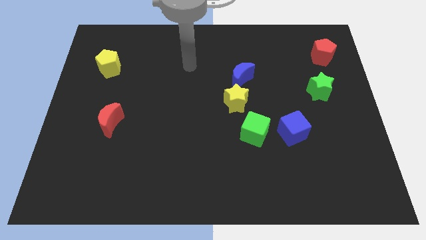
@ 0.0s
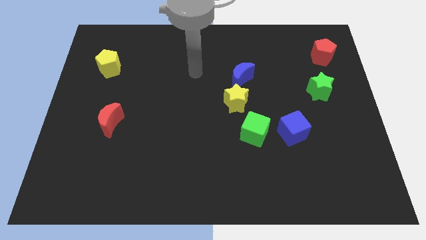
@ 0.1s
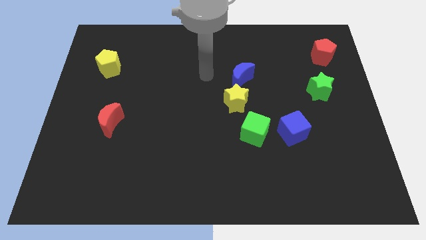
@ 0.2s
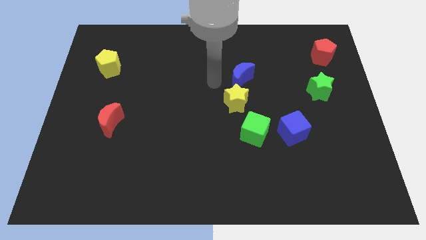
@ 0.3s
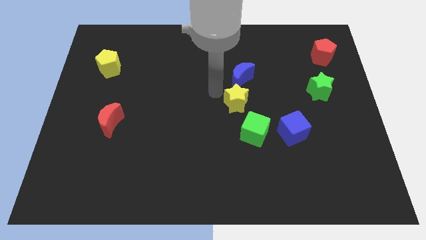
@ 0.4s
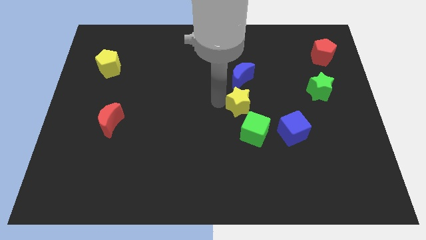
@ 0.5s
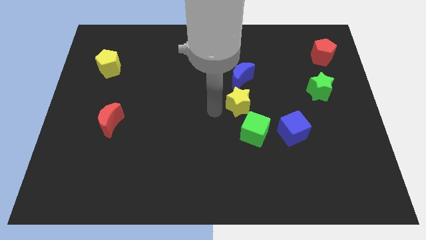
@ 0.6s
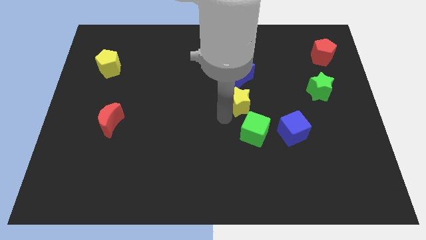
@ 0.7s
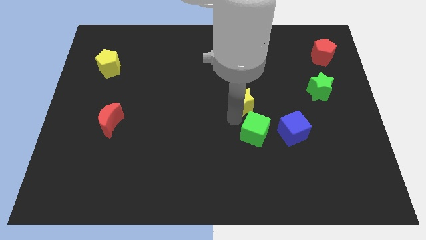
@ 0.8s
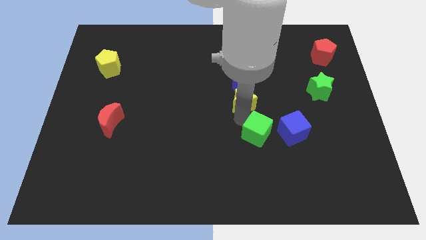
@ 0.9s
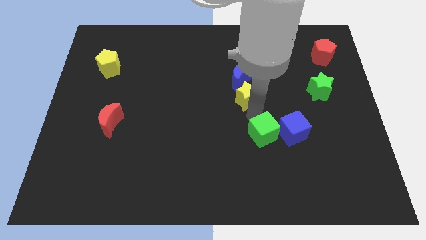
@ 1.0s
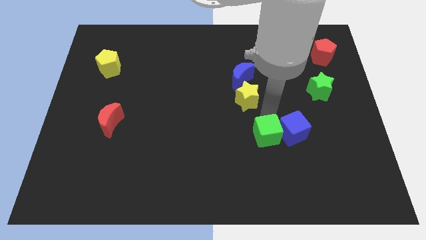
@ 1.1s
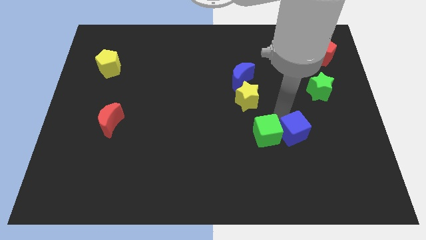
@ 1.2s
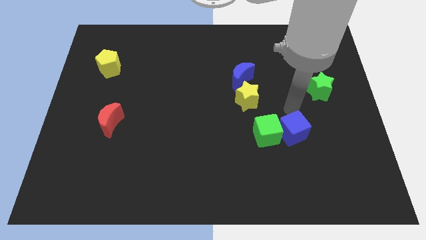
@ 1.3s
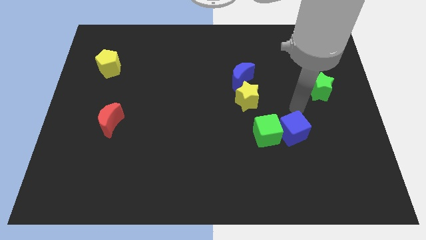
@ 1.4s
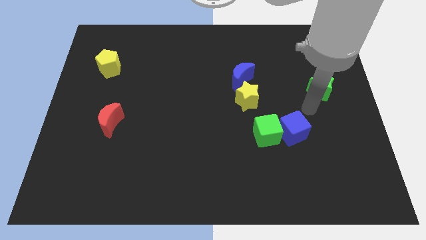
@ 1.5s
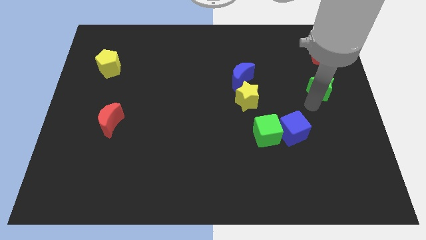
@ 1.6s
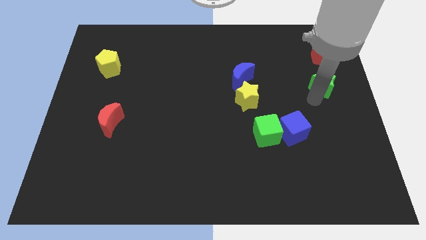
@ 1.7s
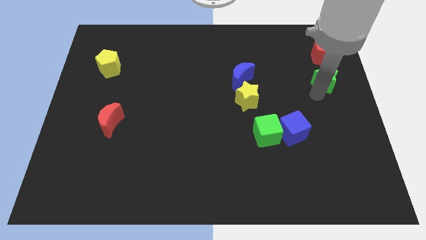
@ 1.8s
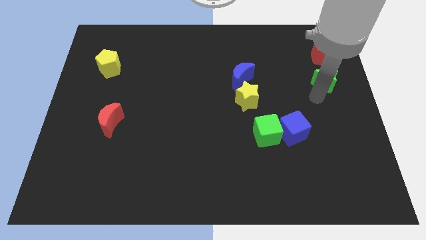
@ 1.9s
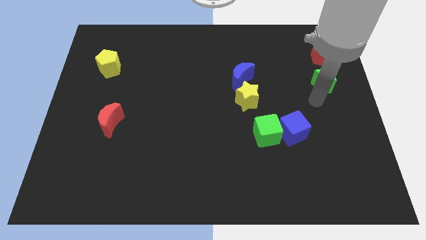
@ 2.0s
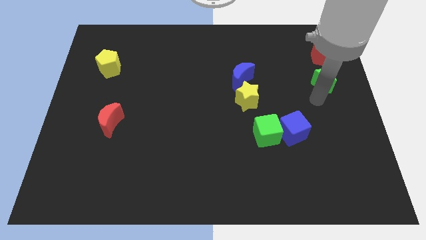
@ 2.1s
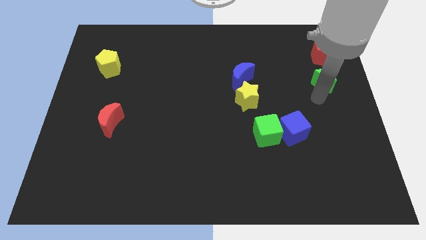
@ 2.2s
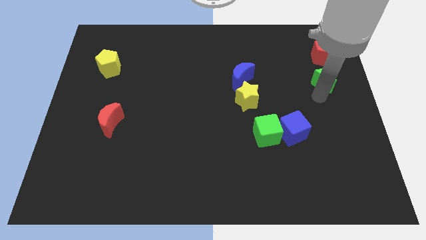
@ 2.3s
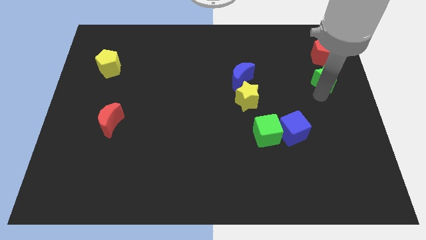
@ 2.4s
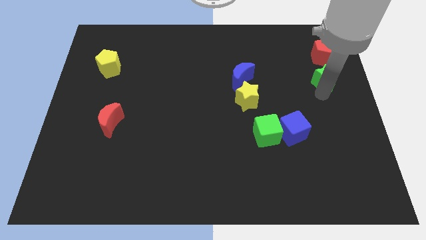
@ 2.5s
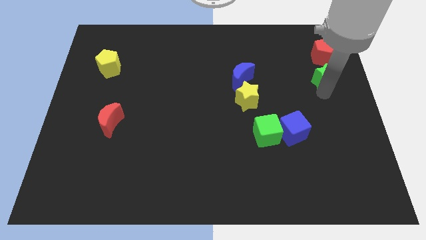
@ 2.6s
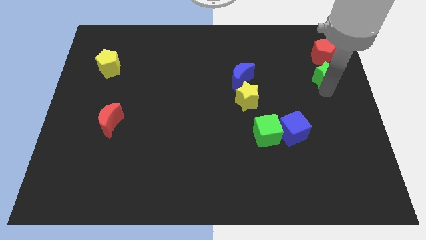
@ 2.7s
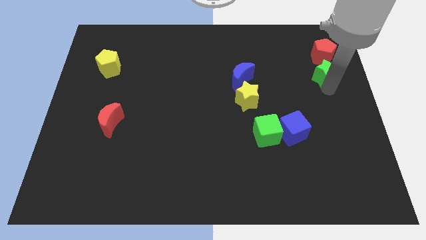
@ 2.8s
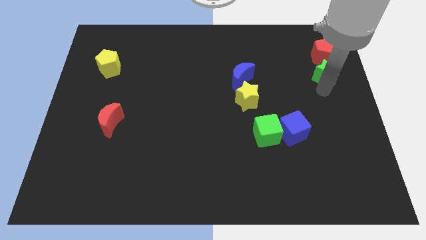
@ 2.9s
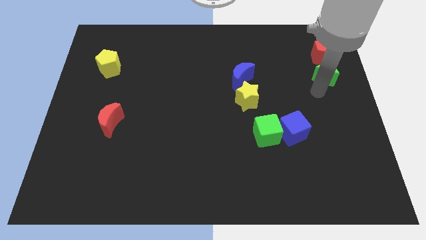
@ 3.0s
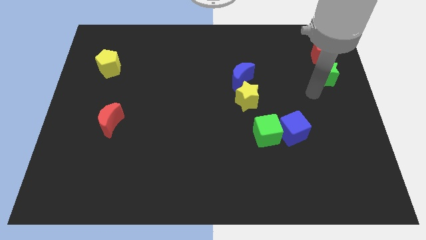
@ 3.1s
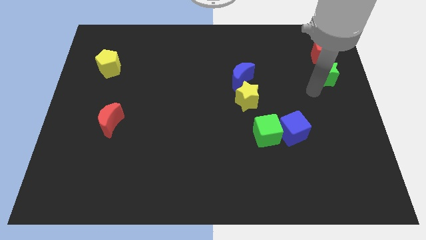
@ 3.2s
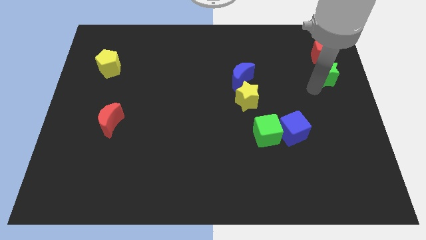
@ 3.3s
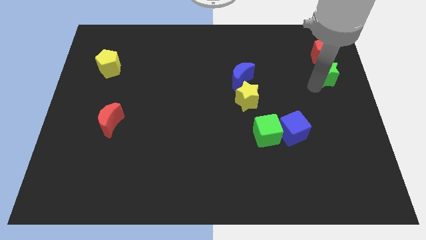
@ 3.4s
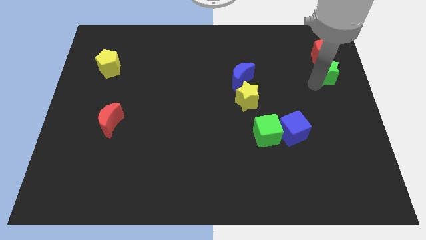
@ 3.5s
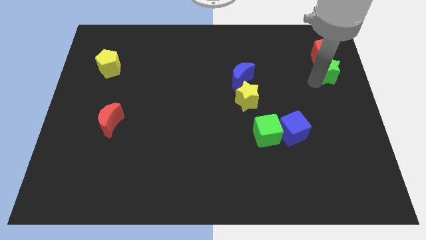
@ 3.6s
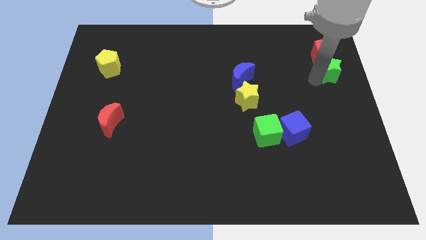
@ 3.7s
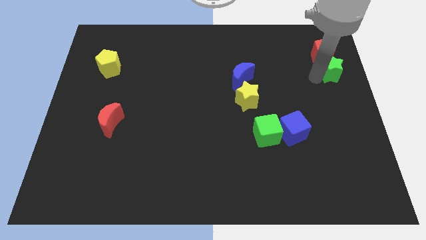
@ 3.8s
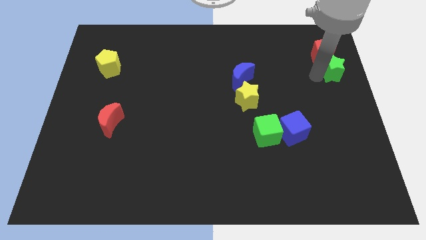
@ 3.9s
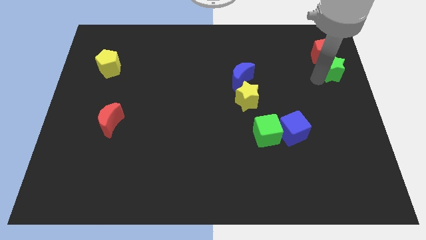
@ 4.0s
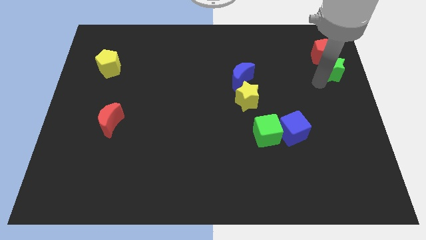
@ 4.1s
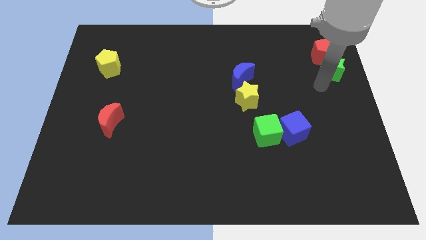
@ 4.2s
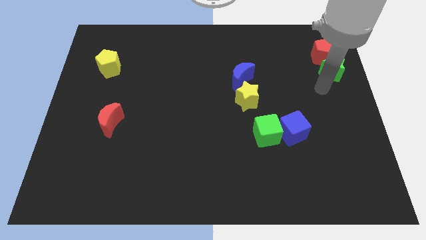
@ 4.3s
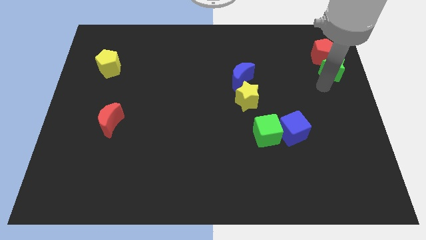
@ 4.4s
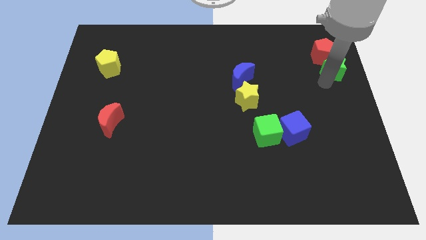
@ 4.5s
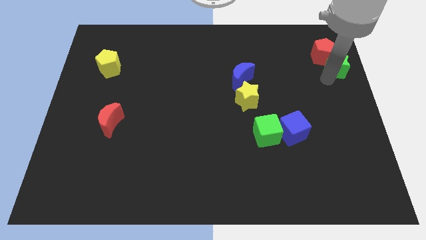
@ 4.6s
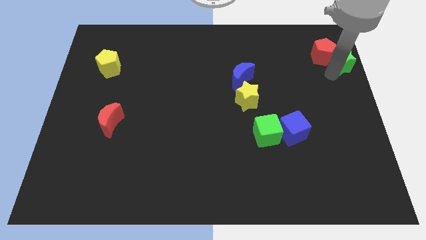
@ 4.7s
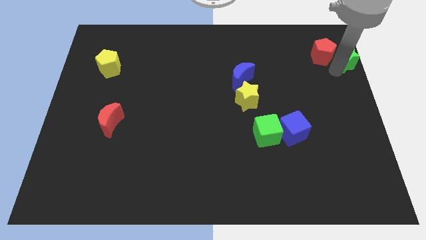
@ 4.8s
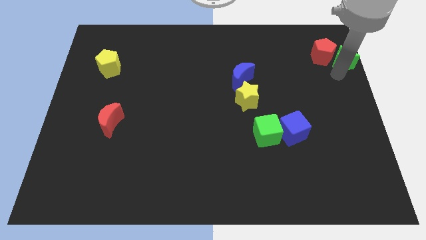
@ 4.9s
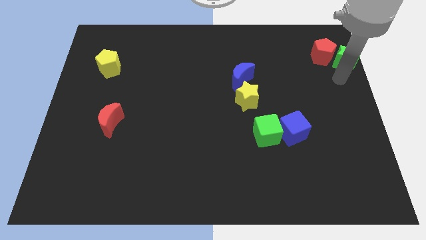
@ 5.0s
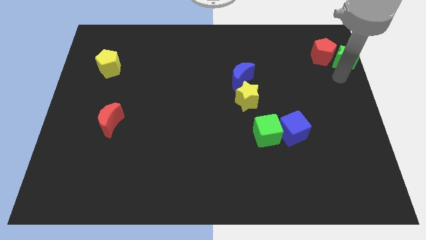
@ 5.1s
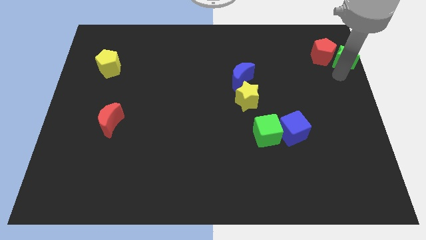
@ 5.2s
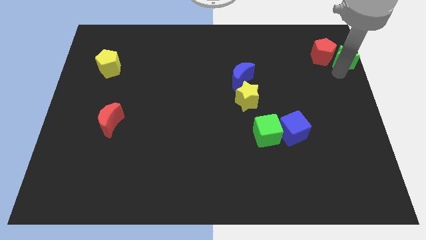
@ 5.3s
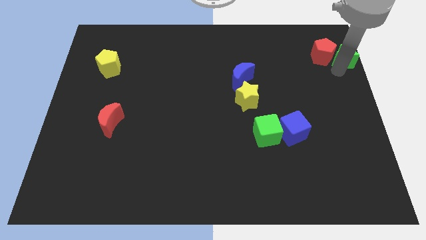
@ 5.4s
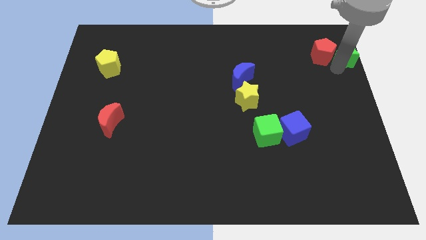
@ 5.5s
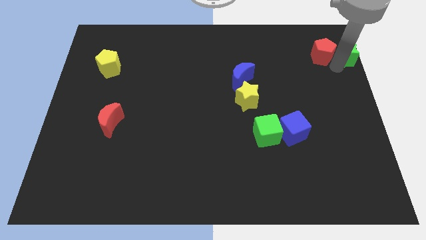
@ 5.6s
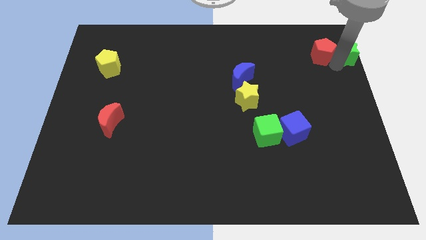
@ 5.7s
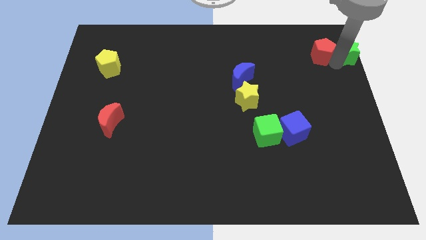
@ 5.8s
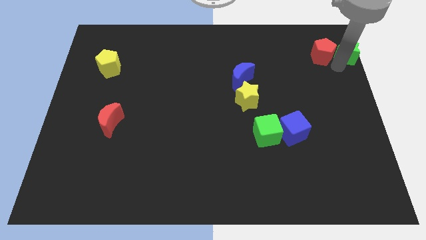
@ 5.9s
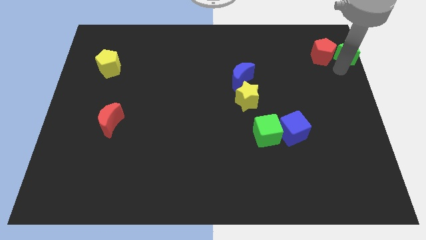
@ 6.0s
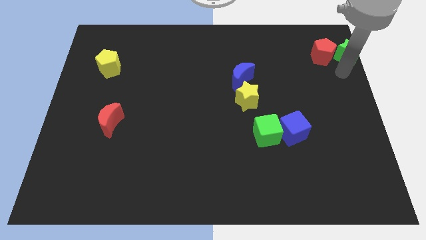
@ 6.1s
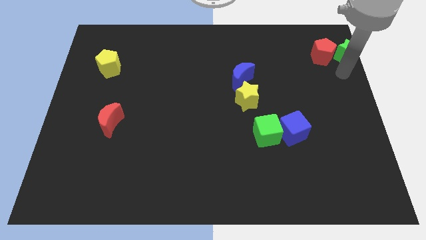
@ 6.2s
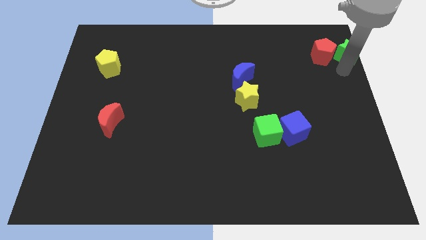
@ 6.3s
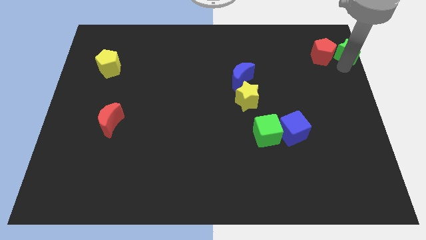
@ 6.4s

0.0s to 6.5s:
move the green star to the top right of the board

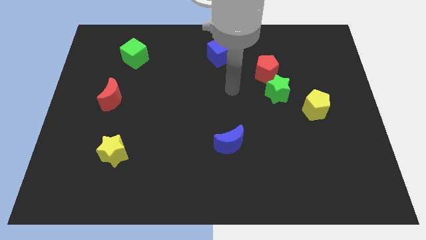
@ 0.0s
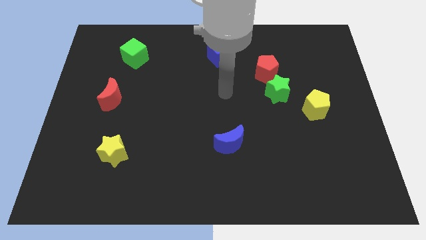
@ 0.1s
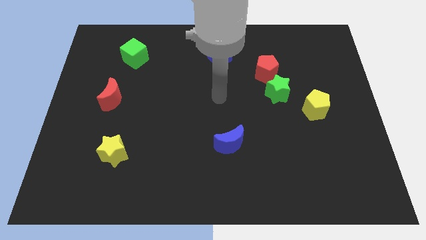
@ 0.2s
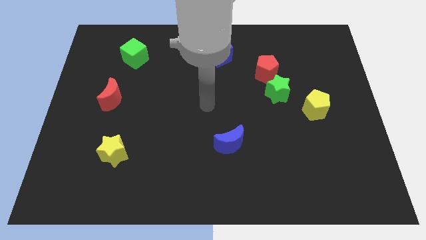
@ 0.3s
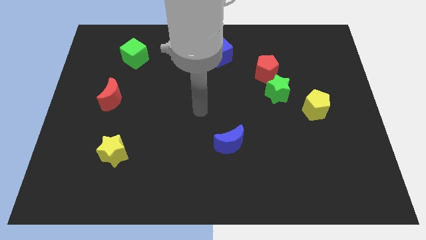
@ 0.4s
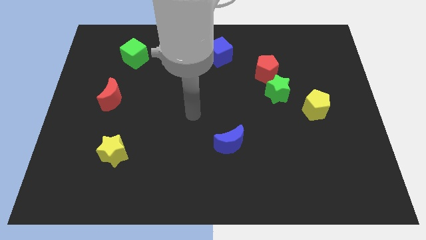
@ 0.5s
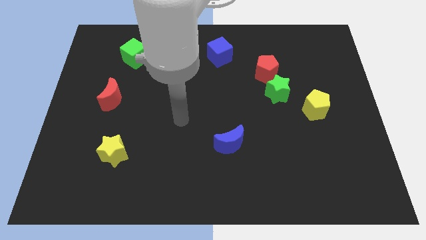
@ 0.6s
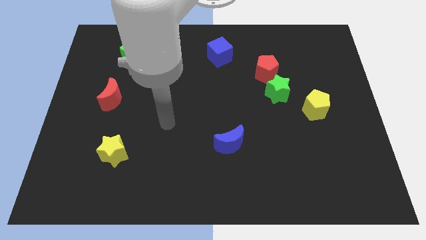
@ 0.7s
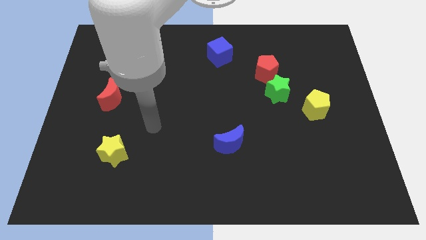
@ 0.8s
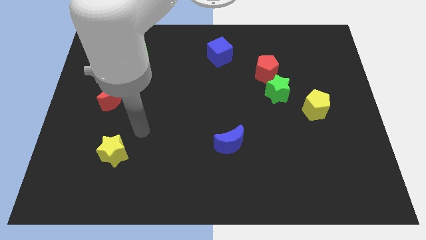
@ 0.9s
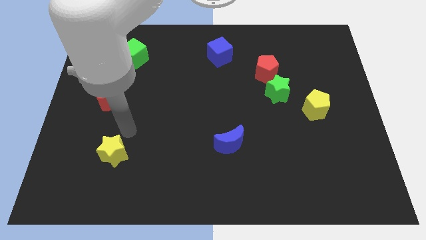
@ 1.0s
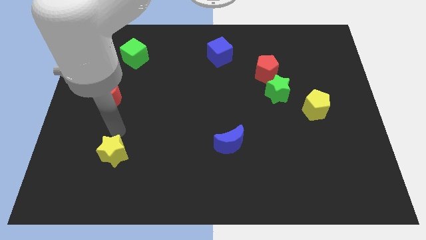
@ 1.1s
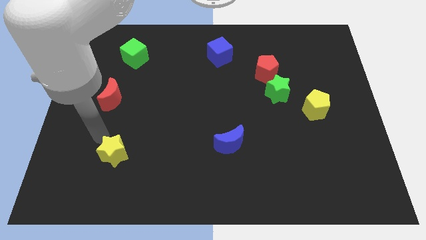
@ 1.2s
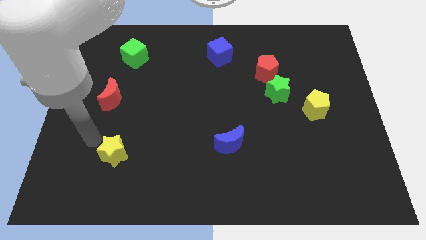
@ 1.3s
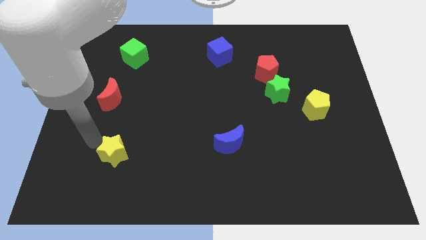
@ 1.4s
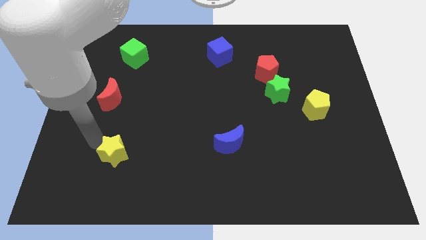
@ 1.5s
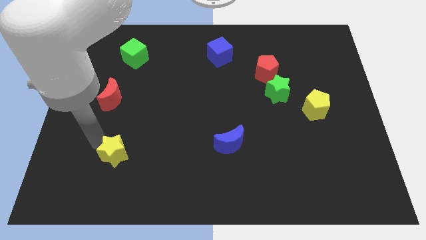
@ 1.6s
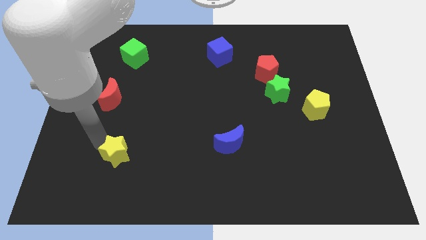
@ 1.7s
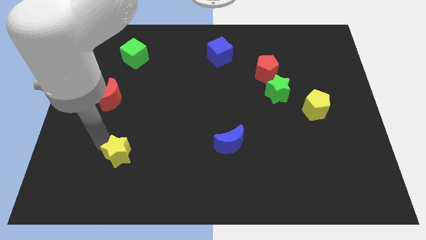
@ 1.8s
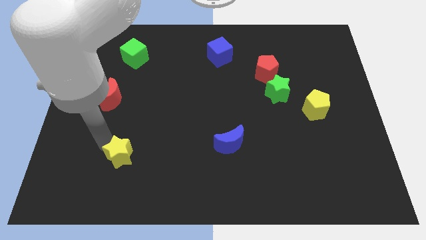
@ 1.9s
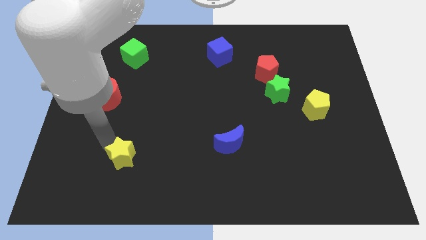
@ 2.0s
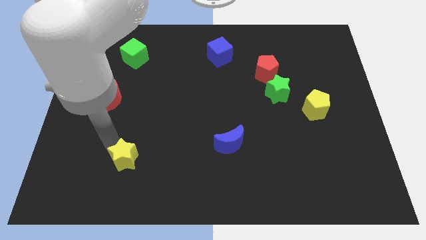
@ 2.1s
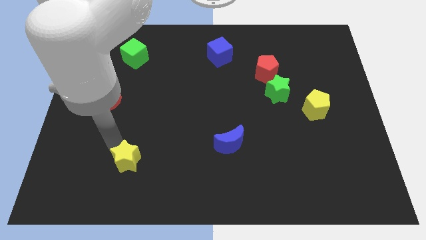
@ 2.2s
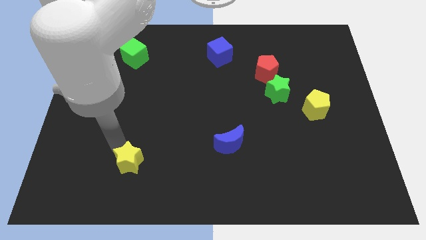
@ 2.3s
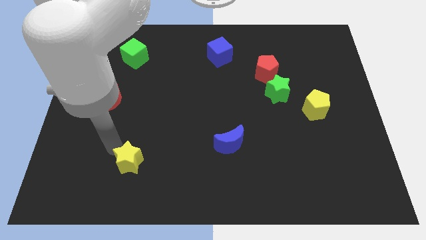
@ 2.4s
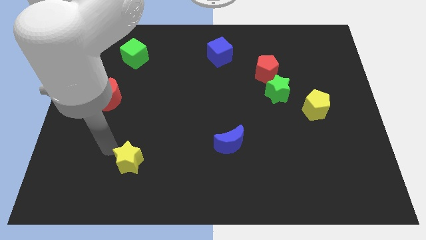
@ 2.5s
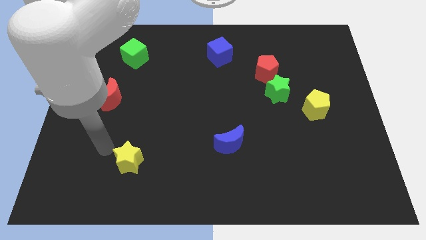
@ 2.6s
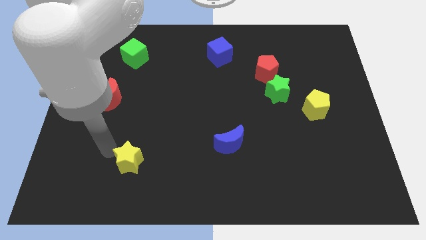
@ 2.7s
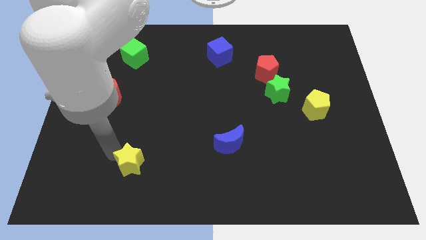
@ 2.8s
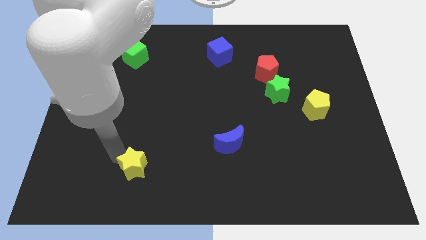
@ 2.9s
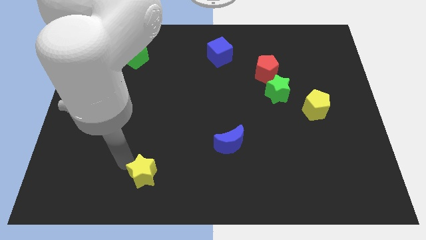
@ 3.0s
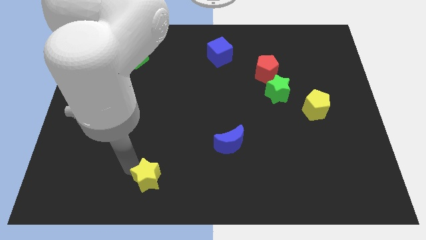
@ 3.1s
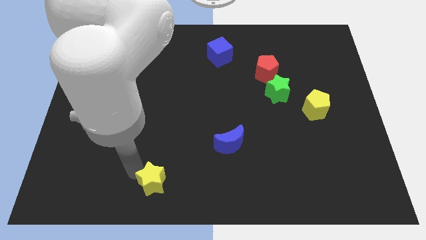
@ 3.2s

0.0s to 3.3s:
slide the yellow star to the bottom side
